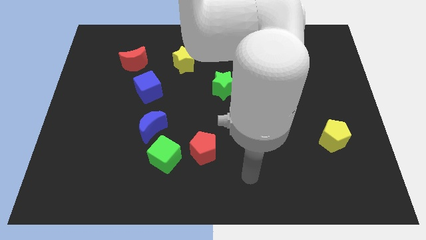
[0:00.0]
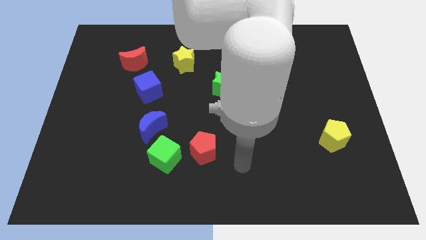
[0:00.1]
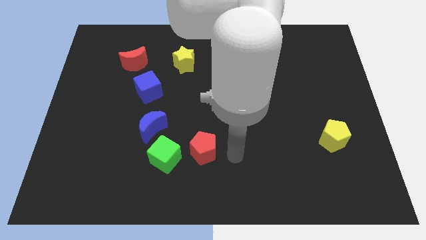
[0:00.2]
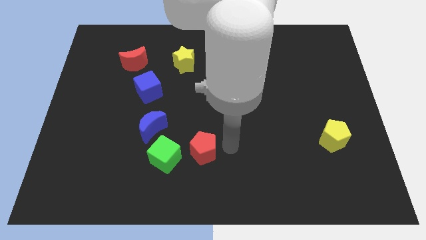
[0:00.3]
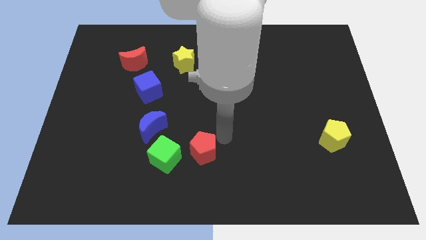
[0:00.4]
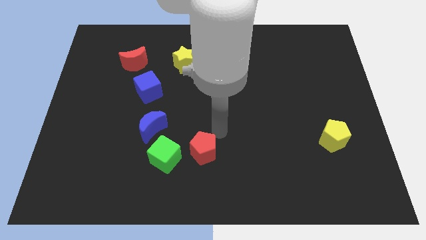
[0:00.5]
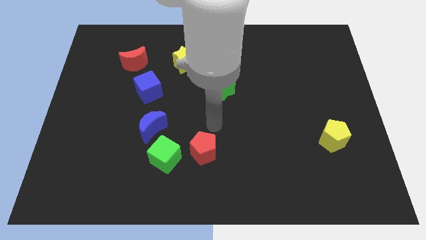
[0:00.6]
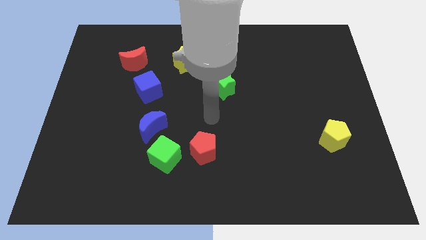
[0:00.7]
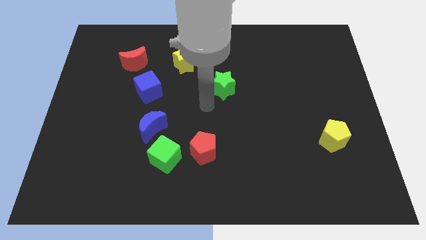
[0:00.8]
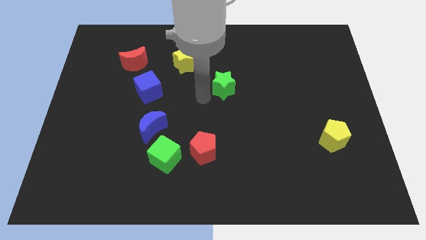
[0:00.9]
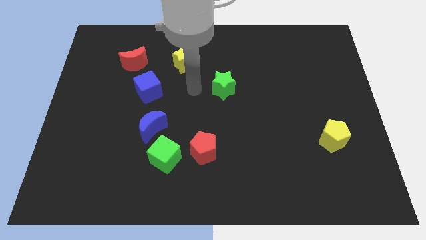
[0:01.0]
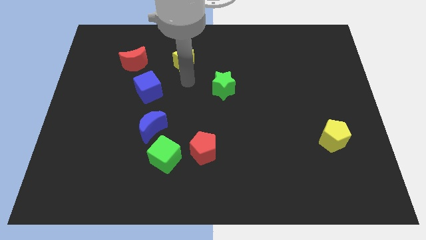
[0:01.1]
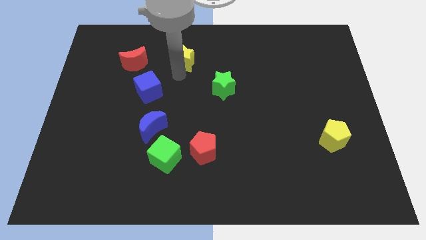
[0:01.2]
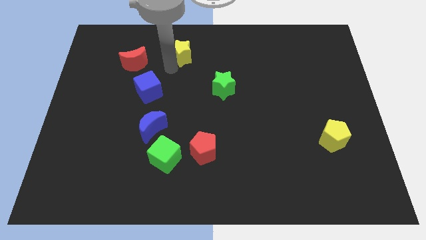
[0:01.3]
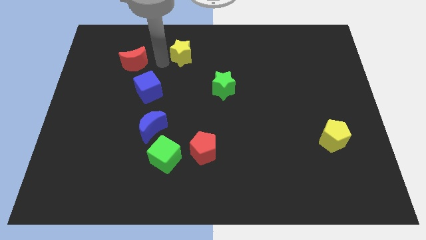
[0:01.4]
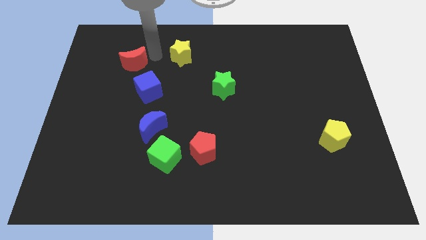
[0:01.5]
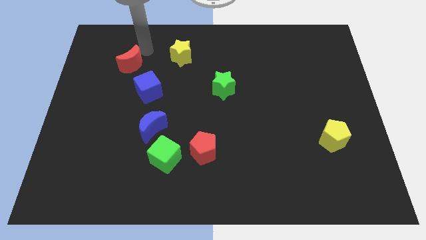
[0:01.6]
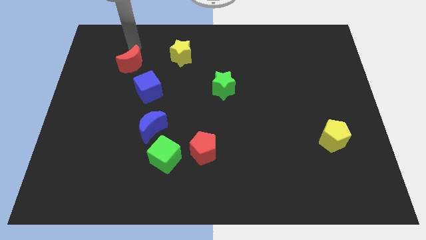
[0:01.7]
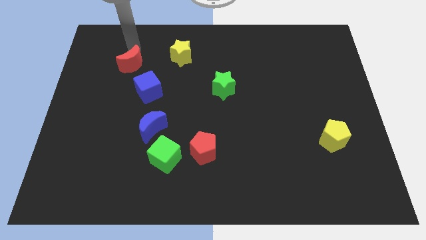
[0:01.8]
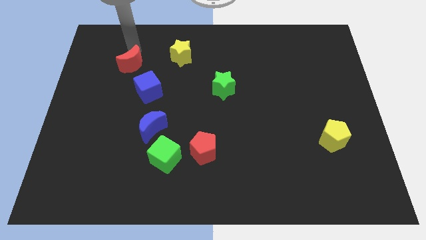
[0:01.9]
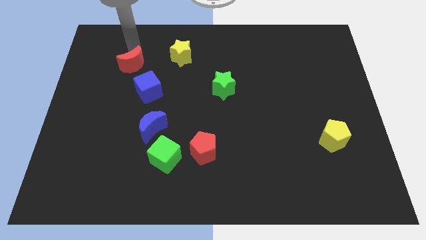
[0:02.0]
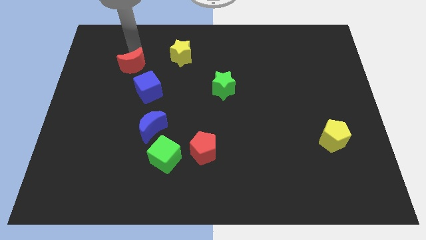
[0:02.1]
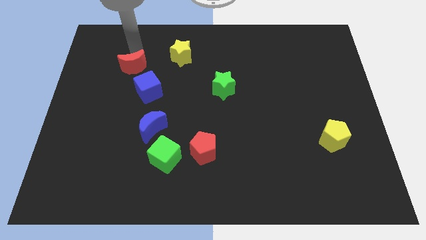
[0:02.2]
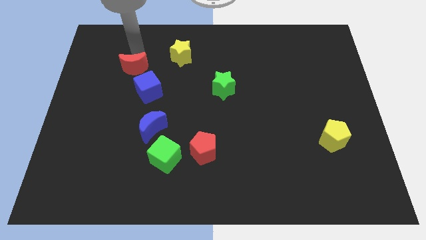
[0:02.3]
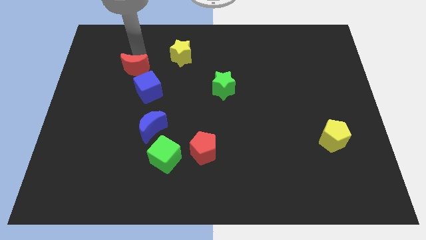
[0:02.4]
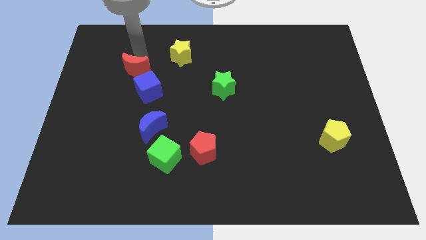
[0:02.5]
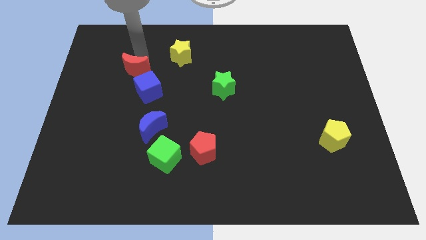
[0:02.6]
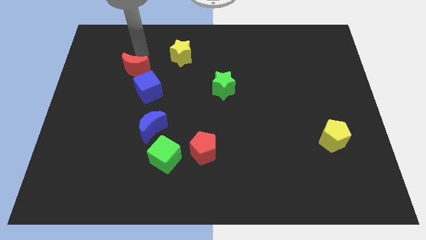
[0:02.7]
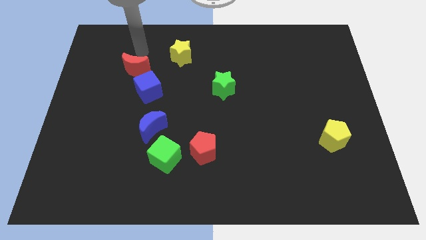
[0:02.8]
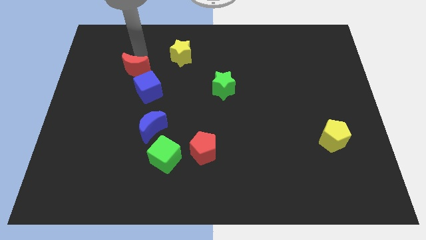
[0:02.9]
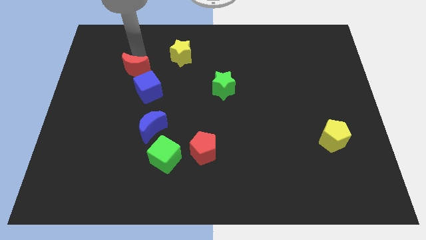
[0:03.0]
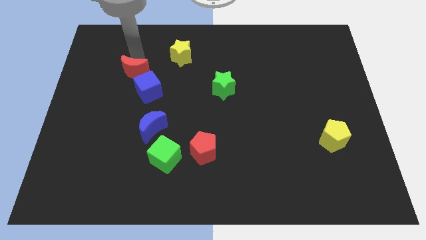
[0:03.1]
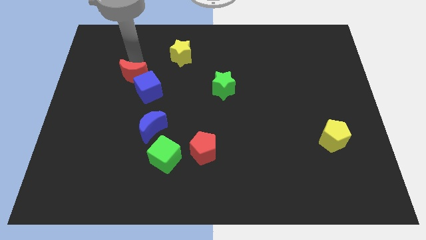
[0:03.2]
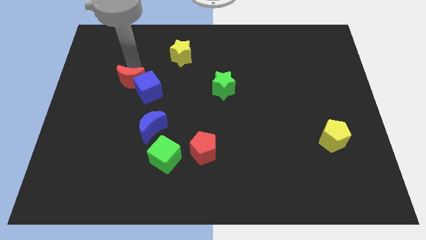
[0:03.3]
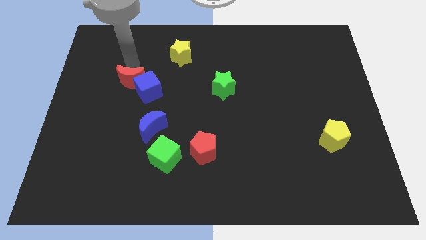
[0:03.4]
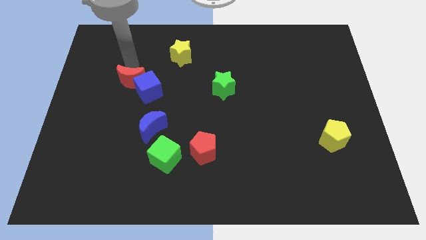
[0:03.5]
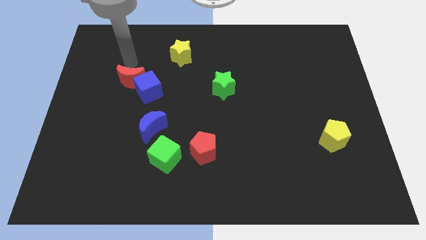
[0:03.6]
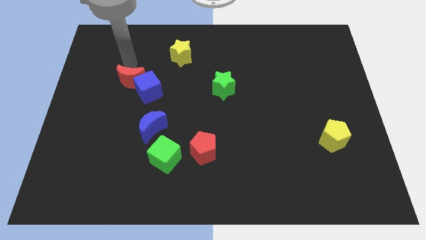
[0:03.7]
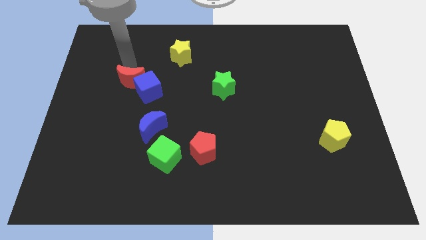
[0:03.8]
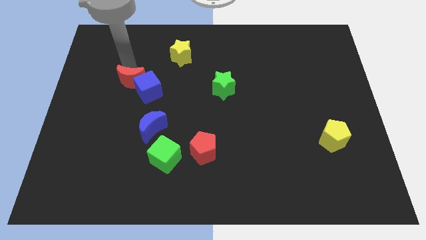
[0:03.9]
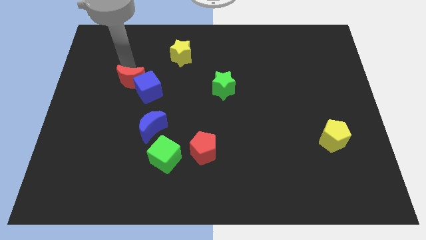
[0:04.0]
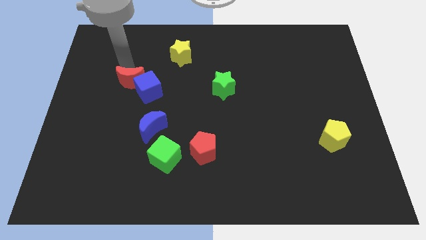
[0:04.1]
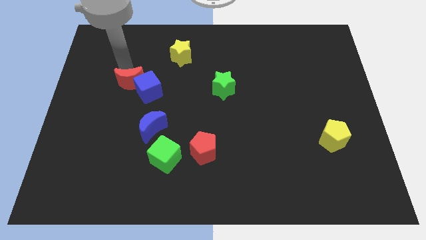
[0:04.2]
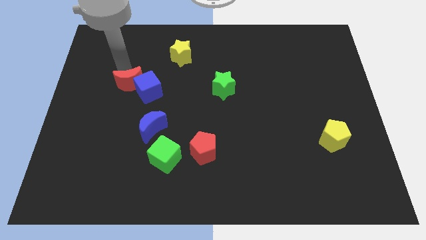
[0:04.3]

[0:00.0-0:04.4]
move the red moon down a bit

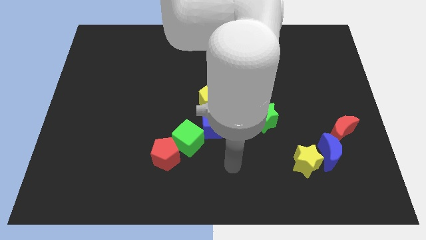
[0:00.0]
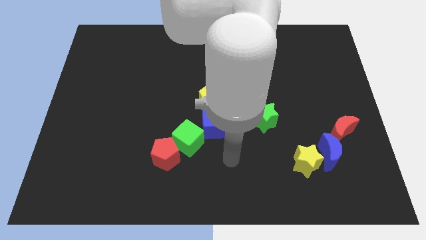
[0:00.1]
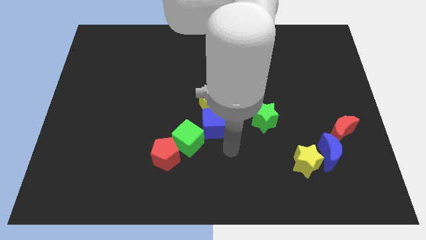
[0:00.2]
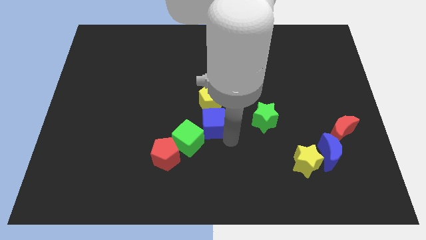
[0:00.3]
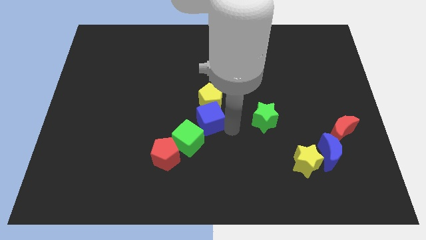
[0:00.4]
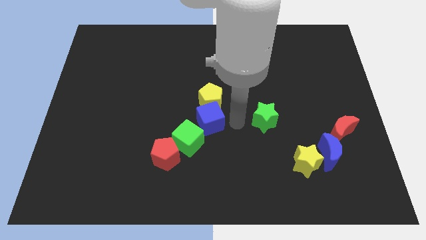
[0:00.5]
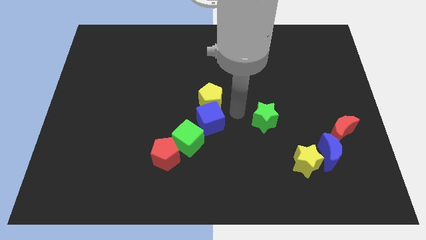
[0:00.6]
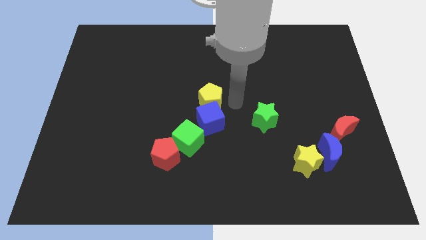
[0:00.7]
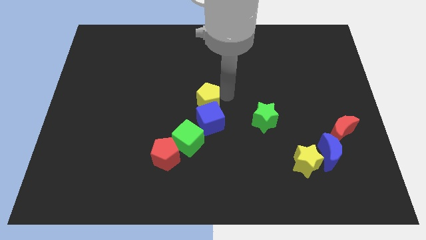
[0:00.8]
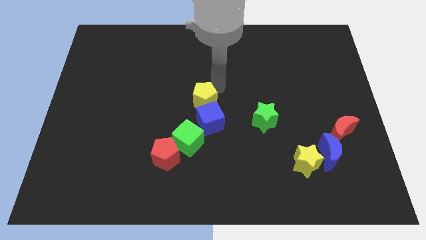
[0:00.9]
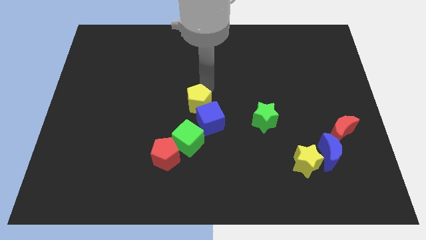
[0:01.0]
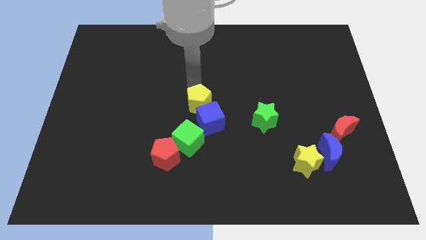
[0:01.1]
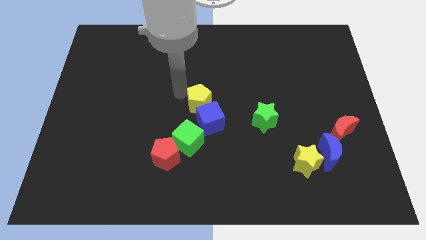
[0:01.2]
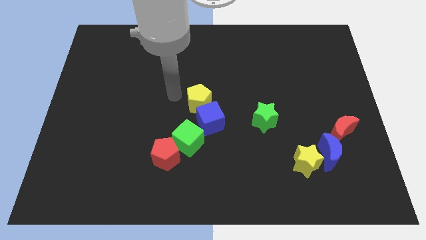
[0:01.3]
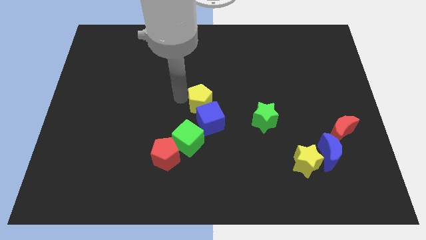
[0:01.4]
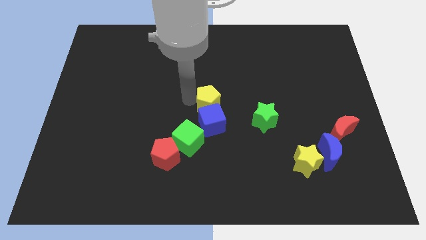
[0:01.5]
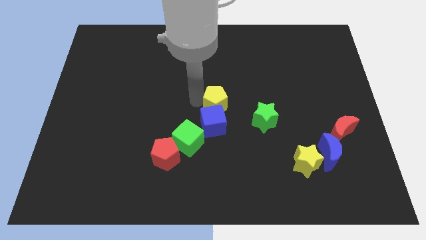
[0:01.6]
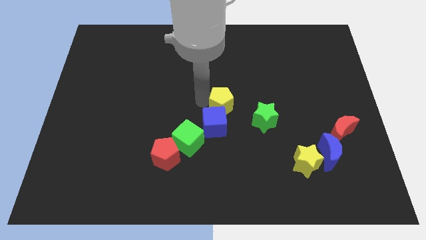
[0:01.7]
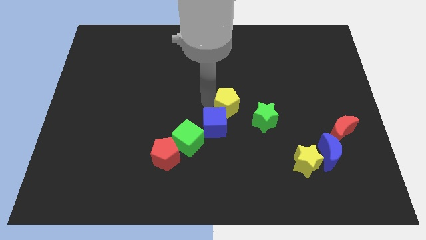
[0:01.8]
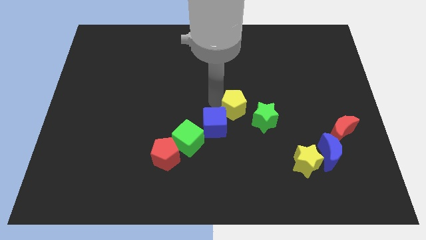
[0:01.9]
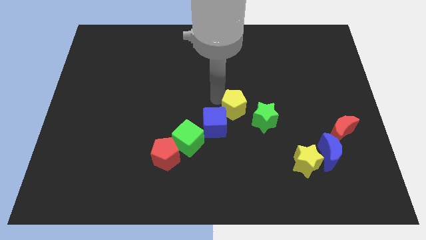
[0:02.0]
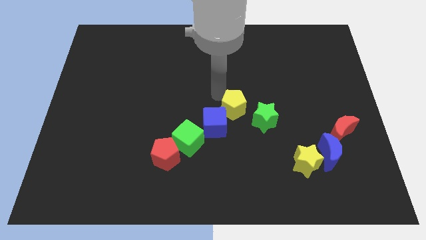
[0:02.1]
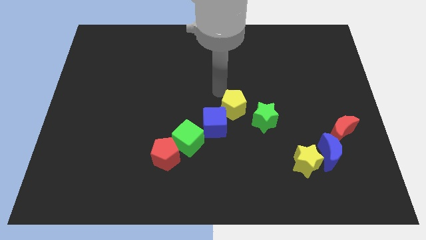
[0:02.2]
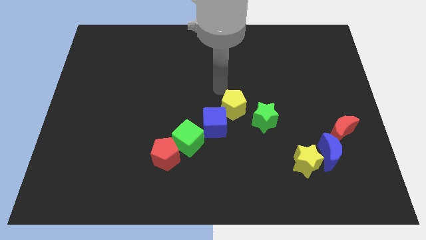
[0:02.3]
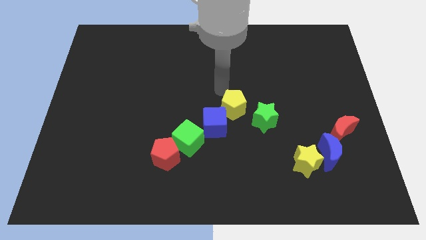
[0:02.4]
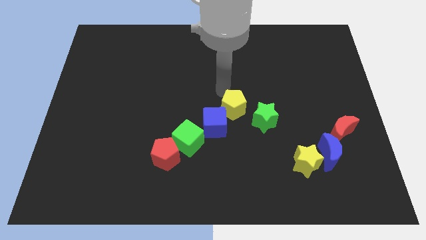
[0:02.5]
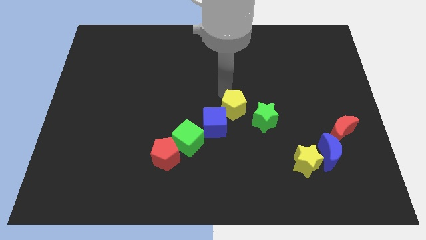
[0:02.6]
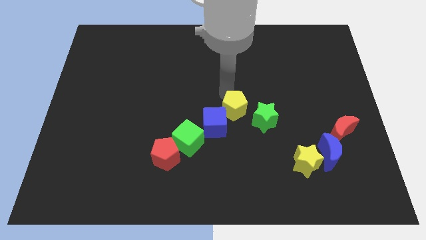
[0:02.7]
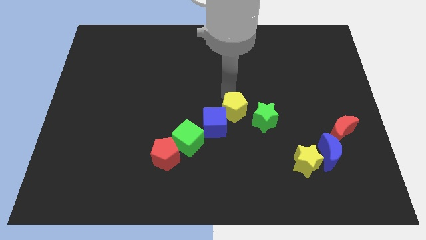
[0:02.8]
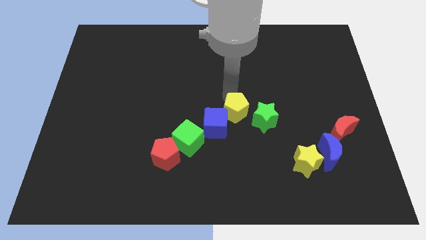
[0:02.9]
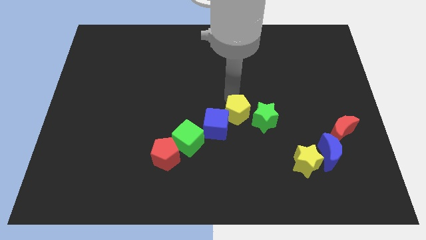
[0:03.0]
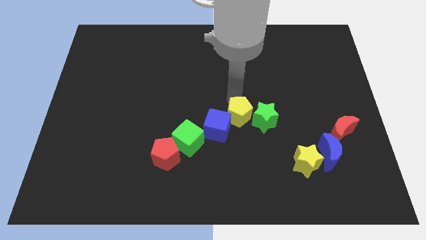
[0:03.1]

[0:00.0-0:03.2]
move the yellow pentagon diagonally down and to the right a little

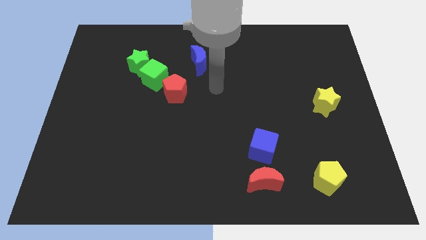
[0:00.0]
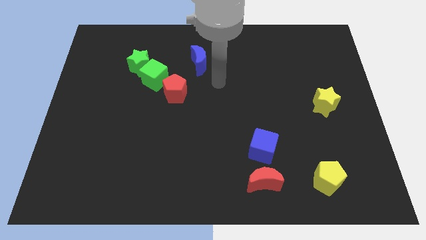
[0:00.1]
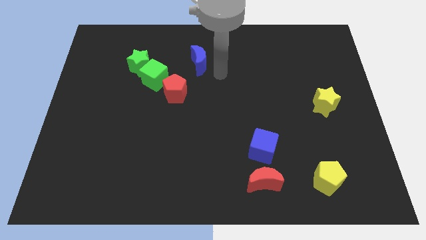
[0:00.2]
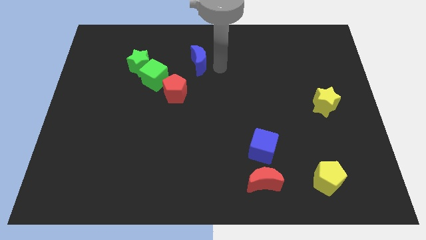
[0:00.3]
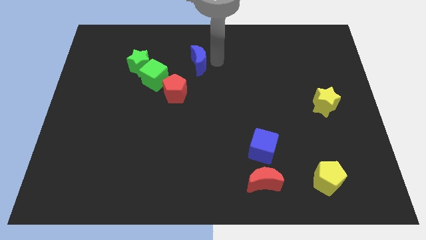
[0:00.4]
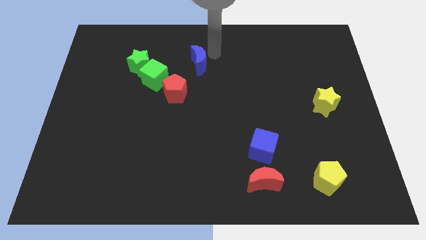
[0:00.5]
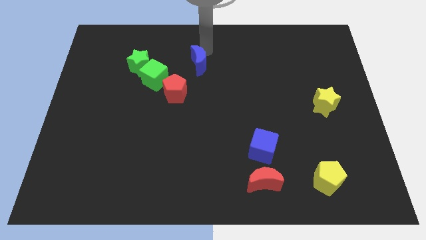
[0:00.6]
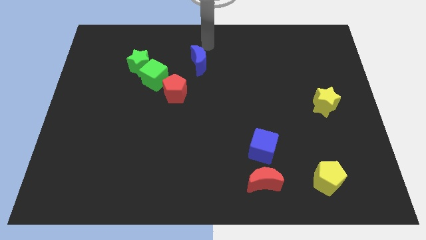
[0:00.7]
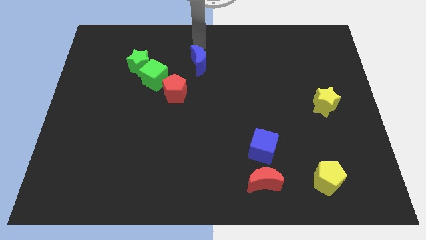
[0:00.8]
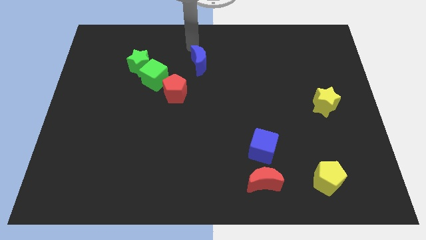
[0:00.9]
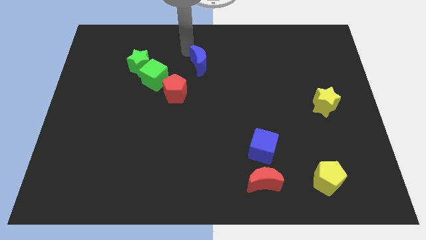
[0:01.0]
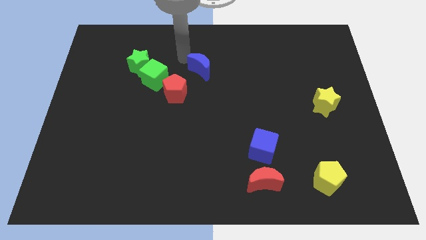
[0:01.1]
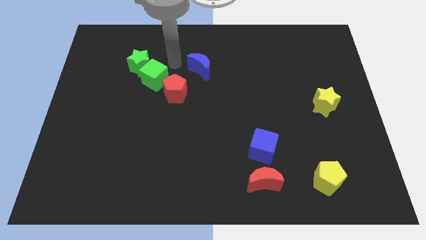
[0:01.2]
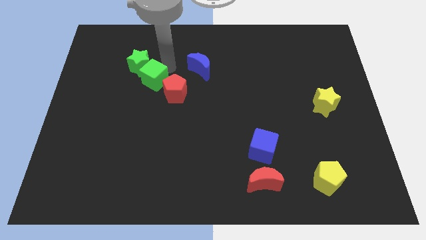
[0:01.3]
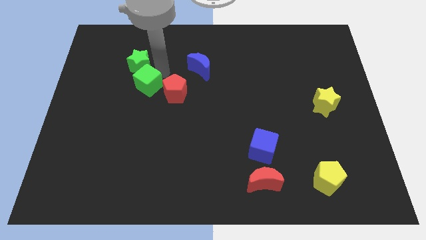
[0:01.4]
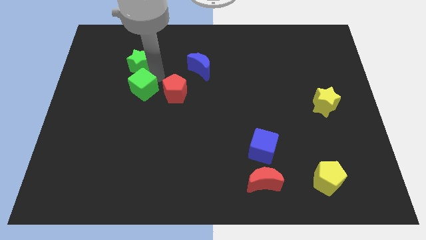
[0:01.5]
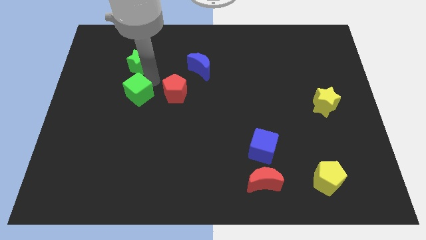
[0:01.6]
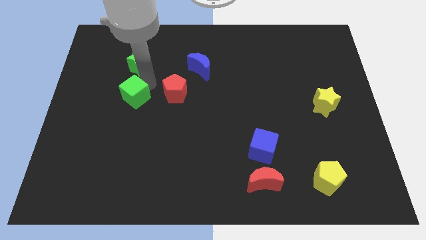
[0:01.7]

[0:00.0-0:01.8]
slightly slide the green cube downwards and to the left diagonally
